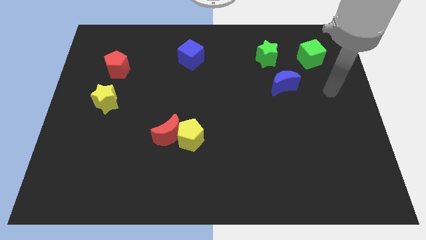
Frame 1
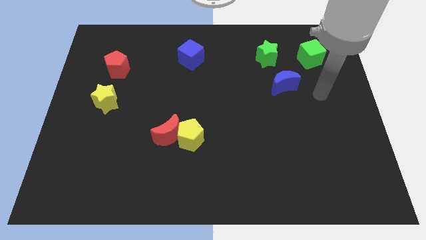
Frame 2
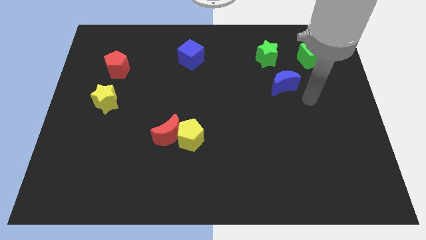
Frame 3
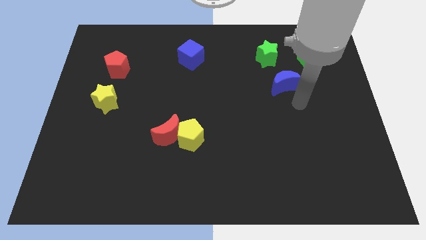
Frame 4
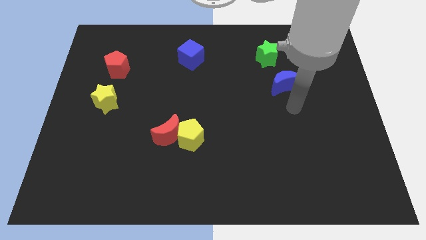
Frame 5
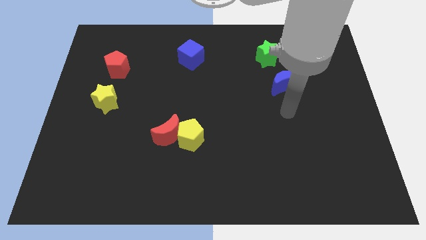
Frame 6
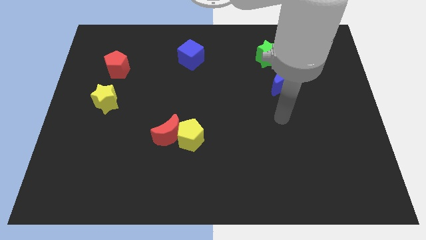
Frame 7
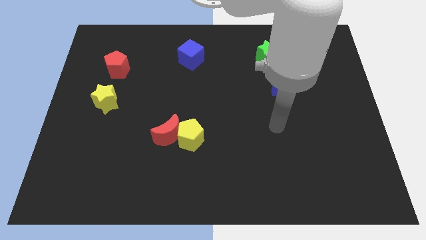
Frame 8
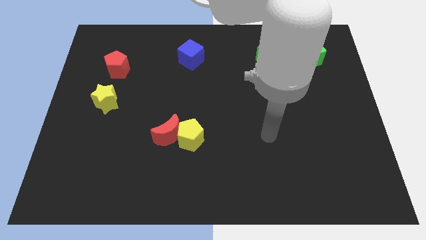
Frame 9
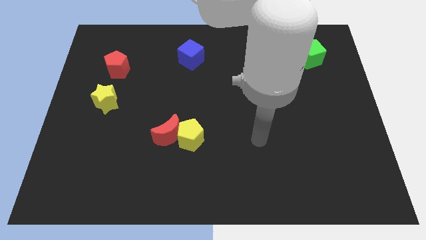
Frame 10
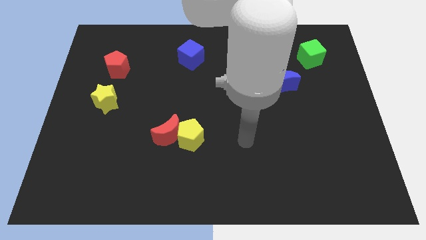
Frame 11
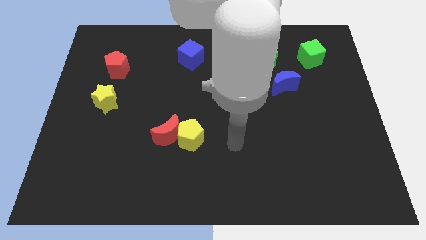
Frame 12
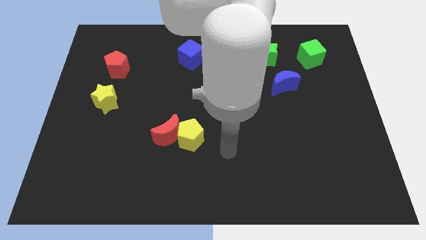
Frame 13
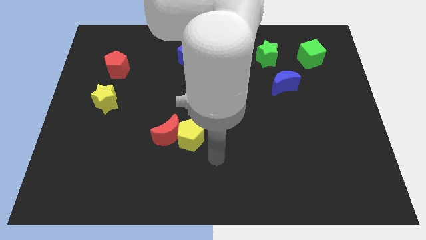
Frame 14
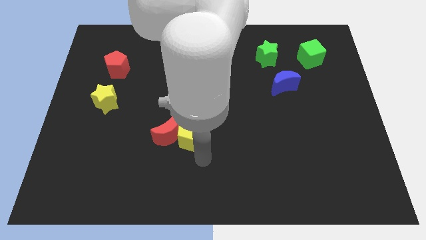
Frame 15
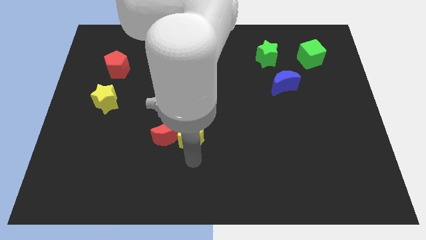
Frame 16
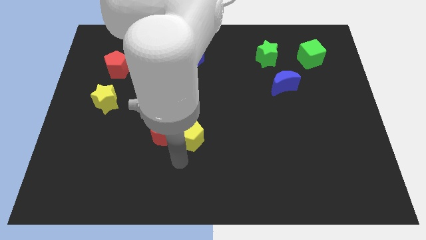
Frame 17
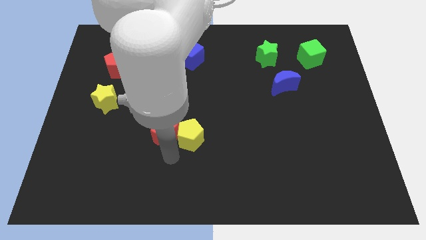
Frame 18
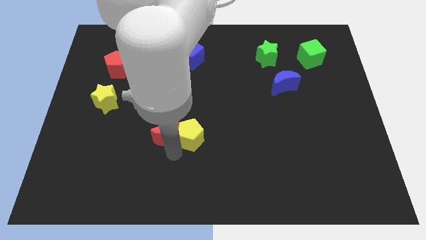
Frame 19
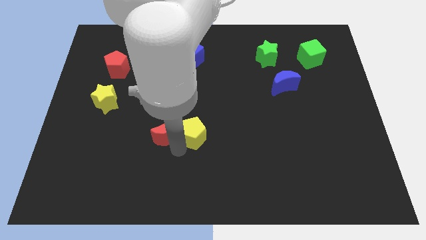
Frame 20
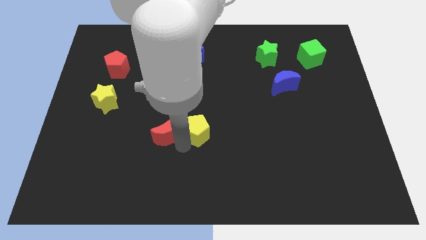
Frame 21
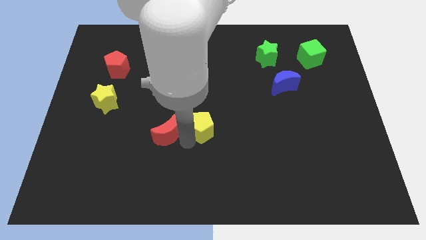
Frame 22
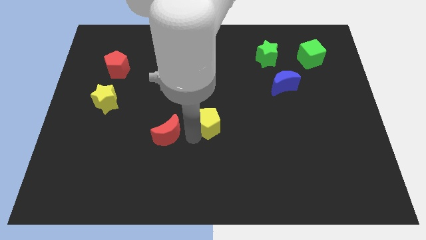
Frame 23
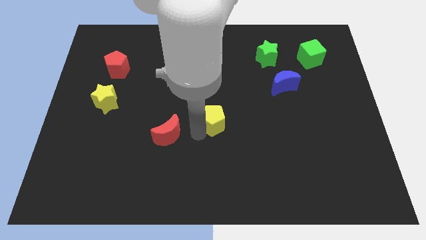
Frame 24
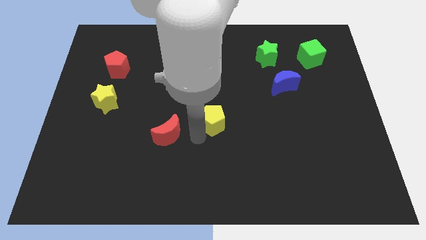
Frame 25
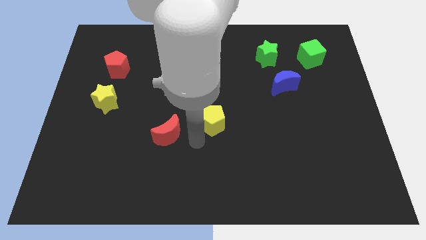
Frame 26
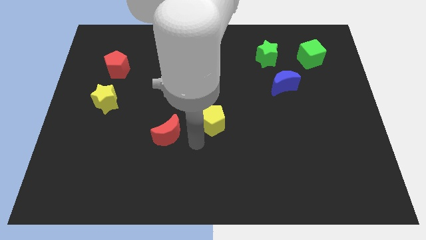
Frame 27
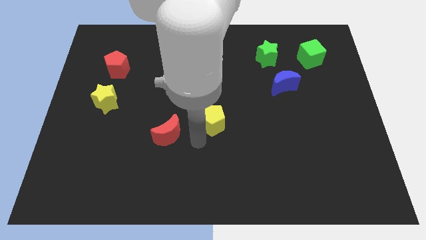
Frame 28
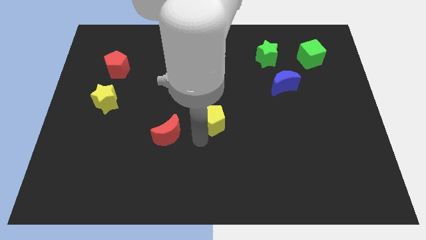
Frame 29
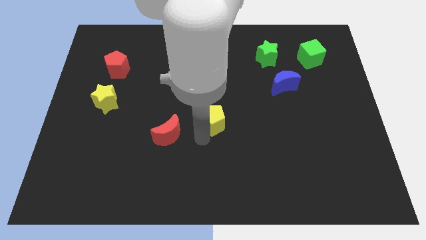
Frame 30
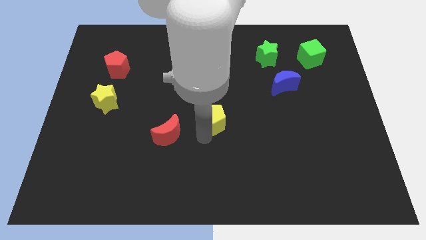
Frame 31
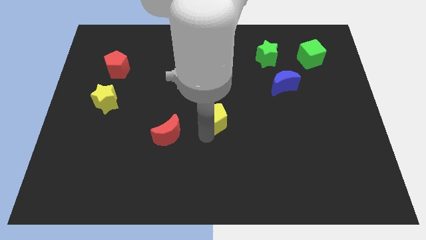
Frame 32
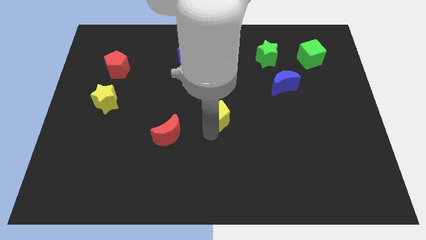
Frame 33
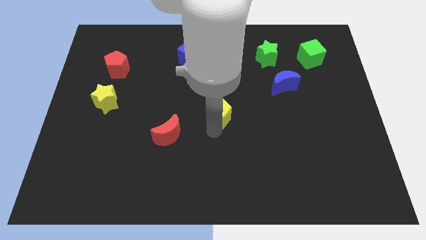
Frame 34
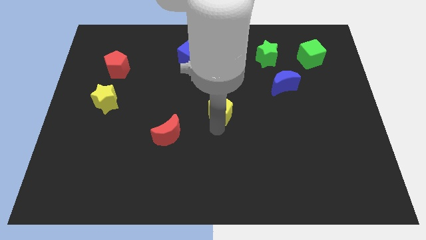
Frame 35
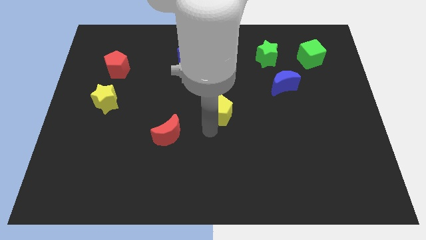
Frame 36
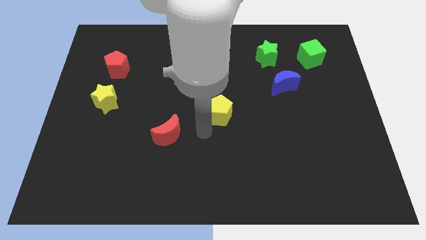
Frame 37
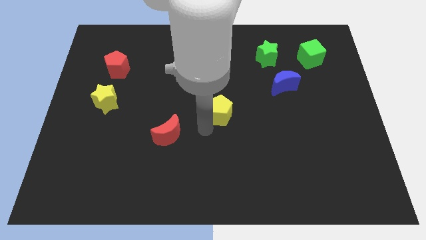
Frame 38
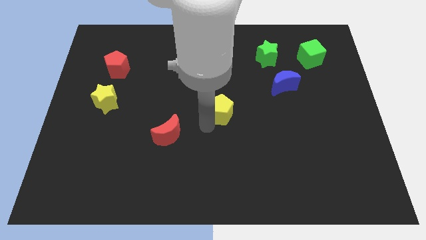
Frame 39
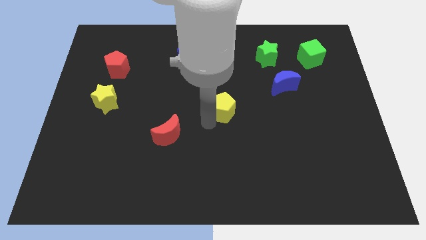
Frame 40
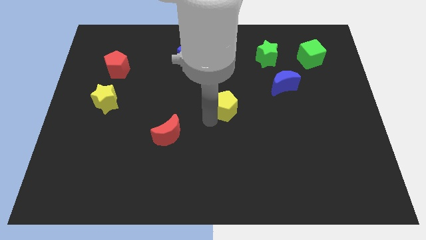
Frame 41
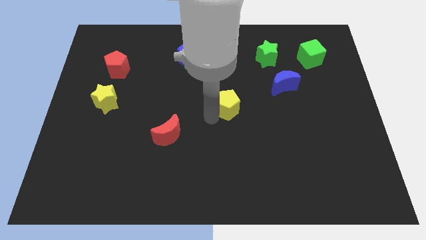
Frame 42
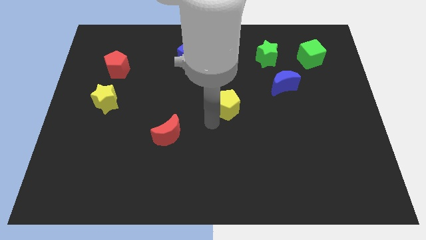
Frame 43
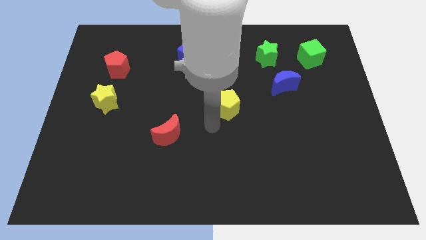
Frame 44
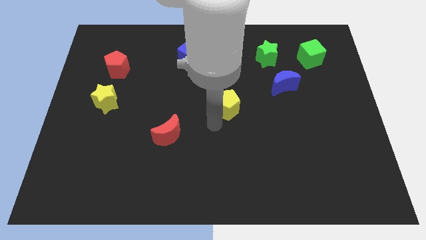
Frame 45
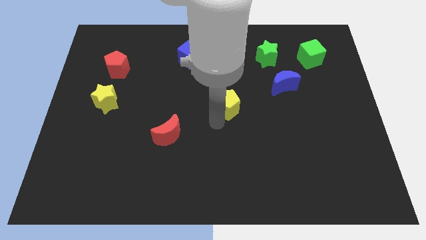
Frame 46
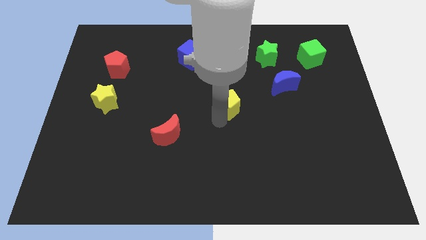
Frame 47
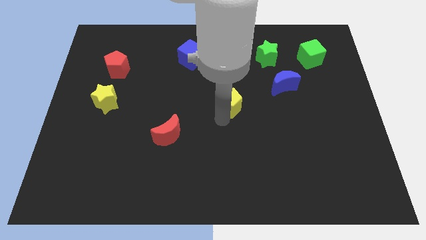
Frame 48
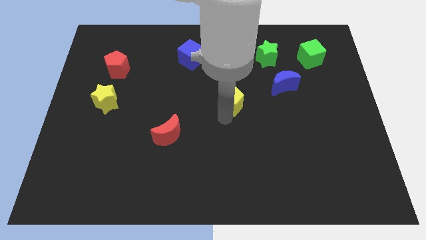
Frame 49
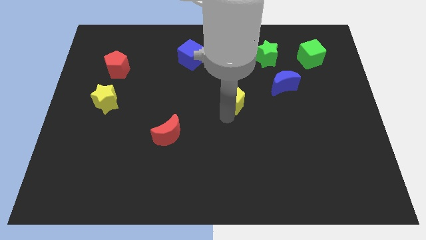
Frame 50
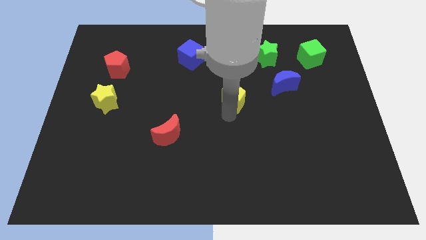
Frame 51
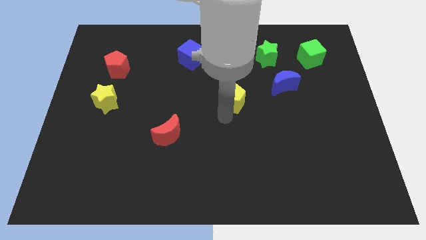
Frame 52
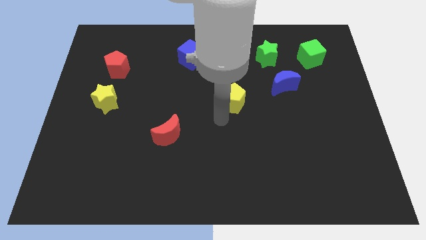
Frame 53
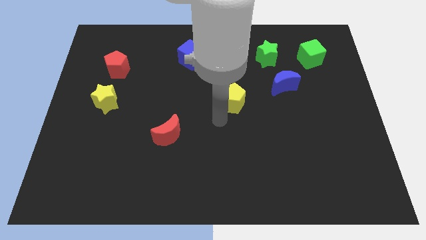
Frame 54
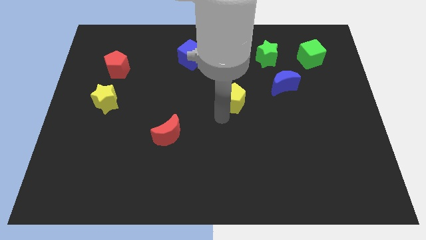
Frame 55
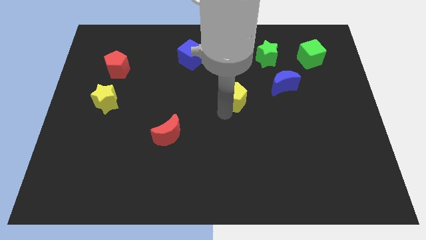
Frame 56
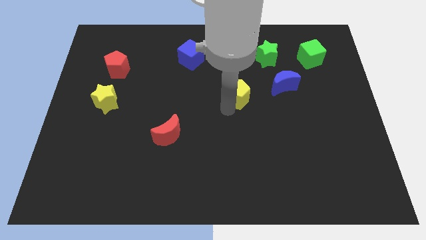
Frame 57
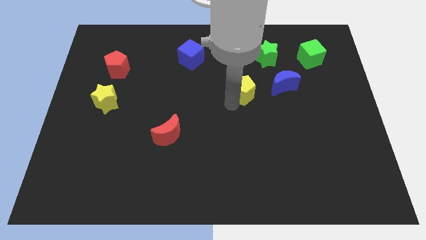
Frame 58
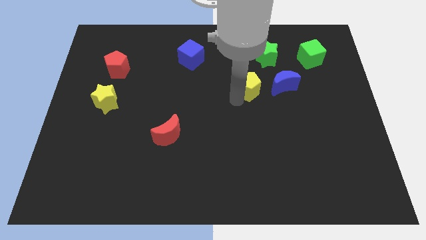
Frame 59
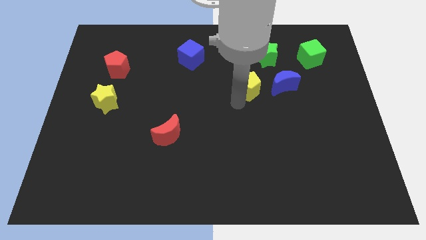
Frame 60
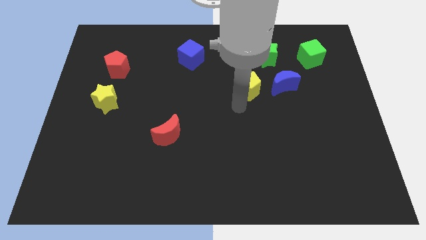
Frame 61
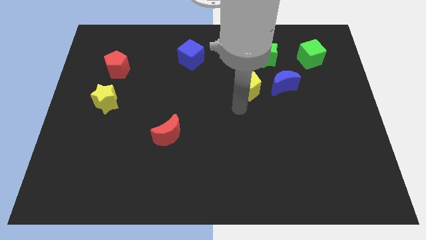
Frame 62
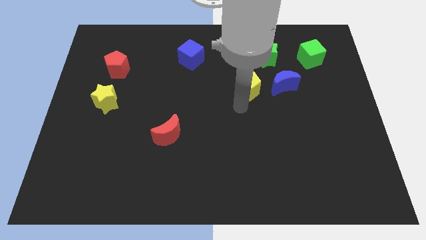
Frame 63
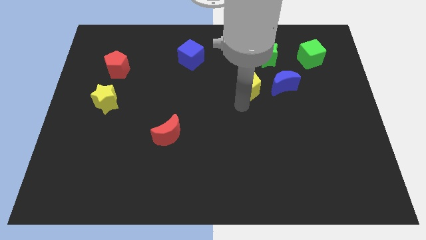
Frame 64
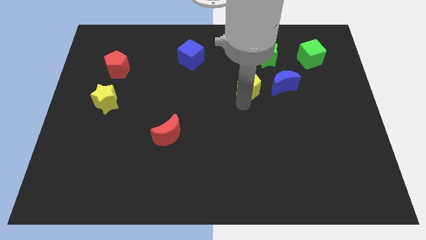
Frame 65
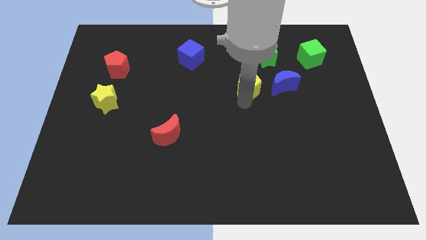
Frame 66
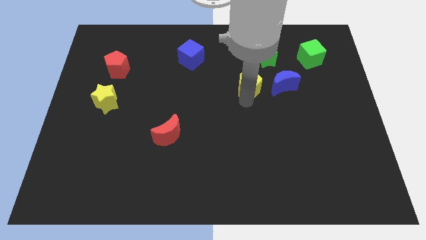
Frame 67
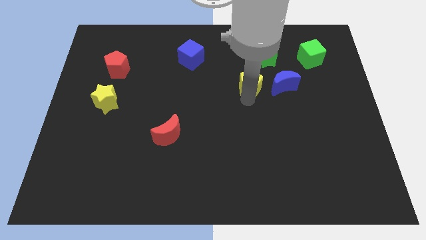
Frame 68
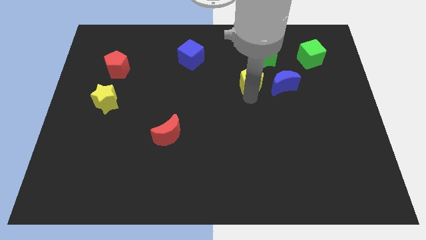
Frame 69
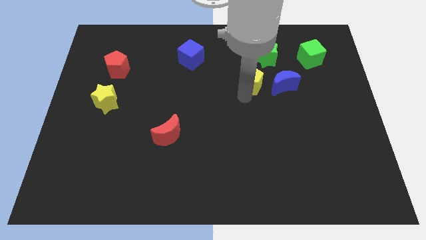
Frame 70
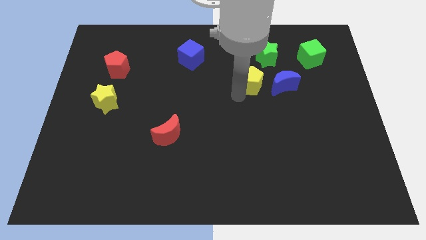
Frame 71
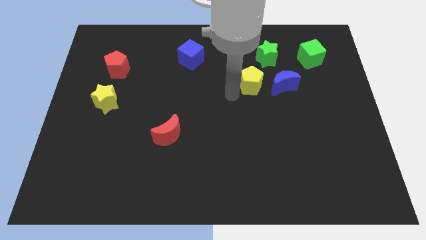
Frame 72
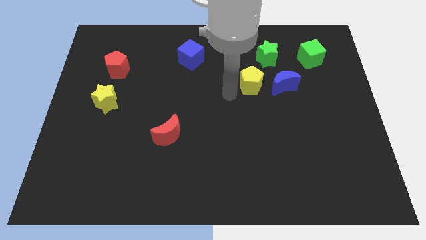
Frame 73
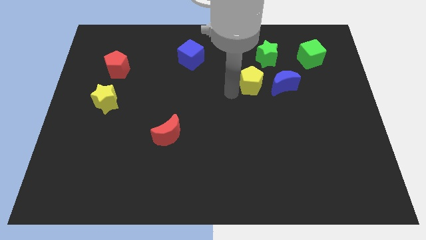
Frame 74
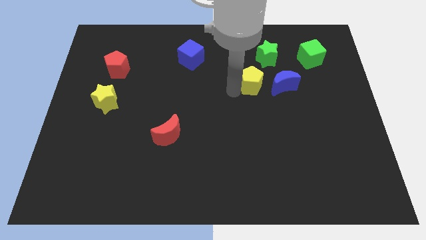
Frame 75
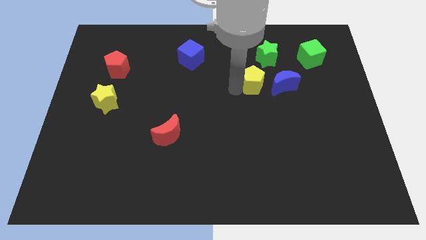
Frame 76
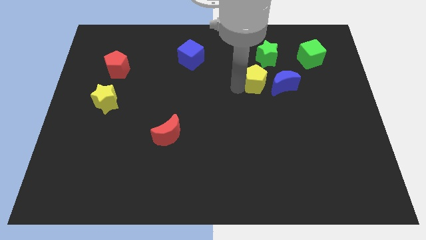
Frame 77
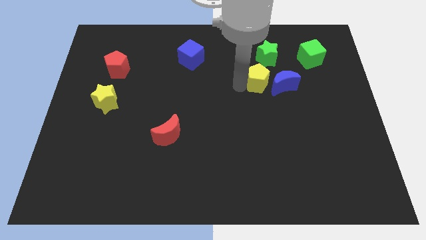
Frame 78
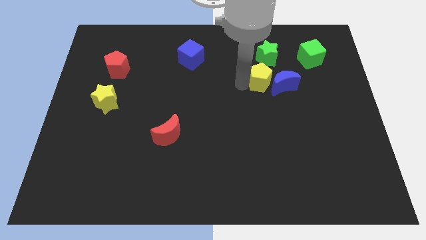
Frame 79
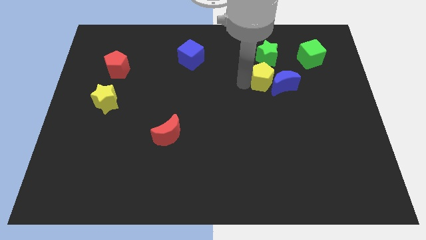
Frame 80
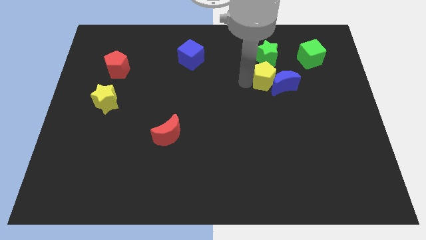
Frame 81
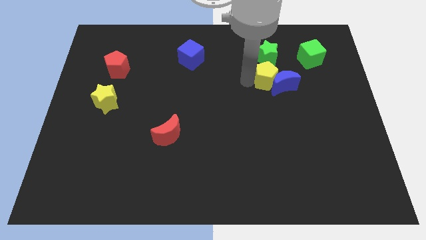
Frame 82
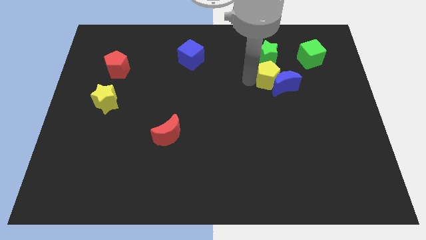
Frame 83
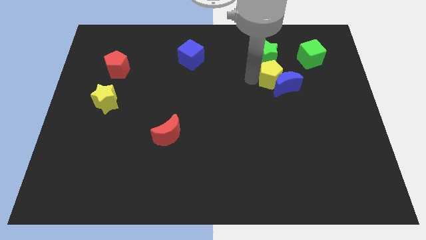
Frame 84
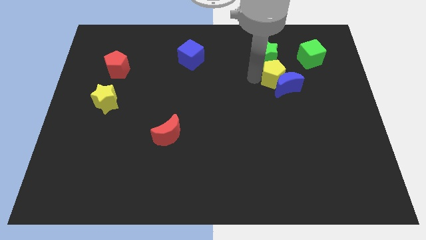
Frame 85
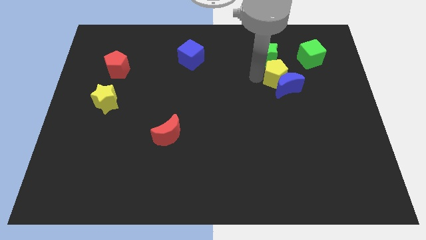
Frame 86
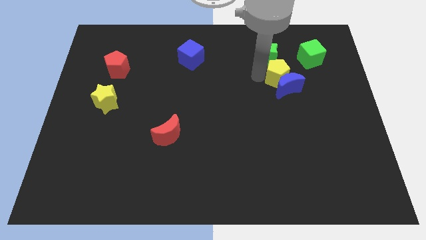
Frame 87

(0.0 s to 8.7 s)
push the yellow pentagon to the top right of the blue moon
